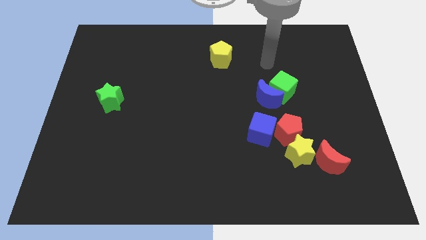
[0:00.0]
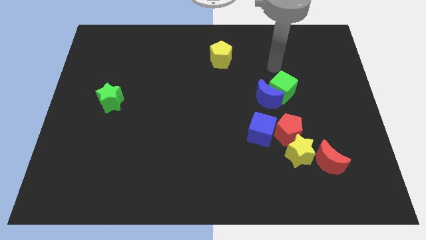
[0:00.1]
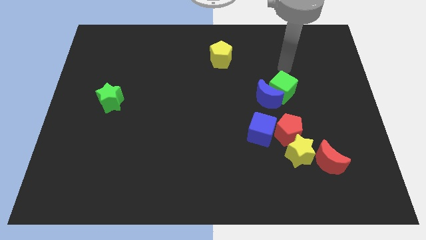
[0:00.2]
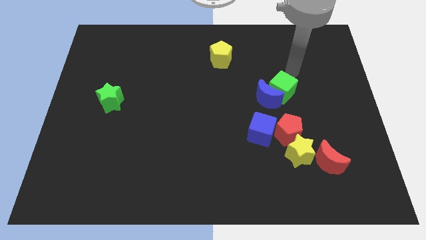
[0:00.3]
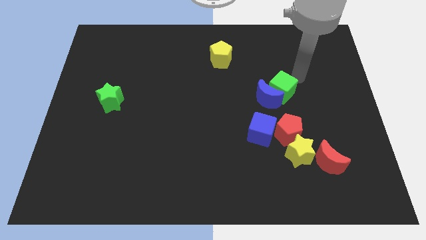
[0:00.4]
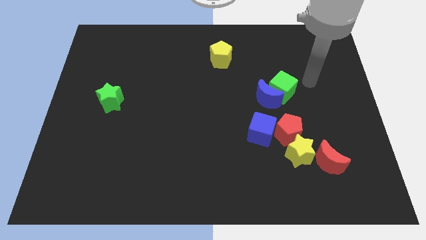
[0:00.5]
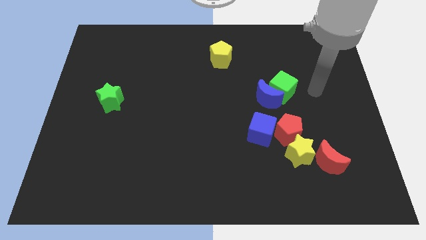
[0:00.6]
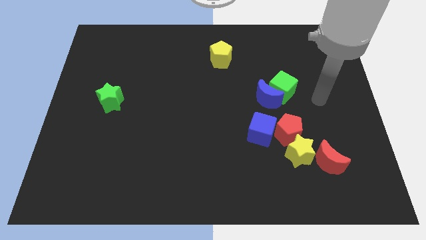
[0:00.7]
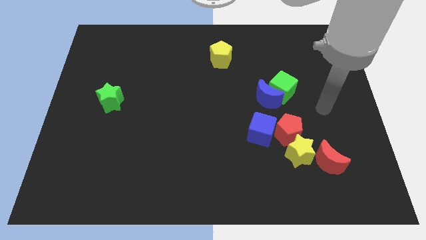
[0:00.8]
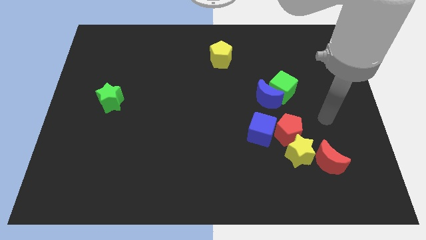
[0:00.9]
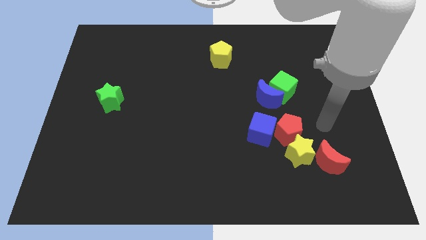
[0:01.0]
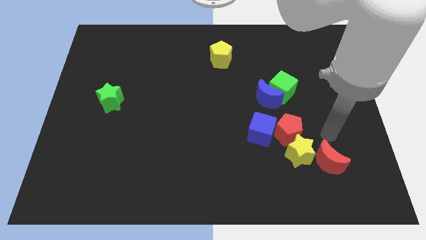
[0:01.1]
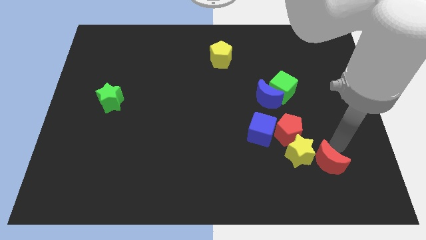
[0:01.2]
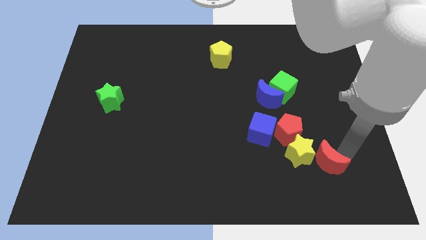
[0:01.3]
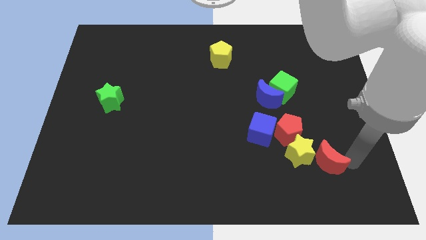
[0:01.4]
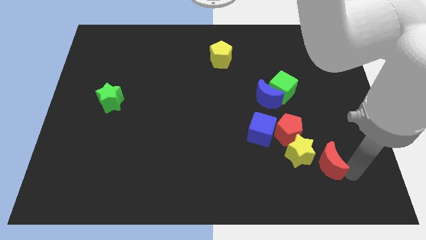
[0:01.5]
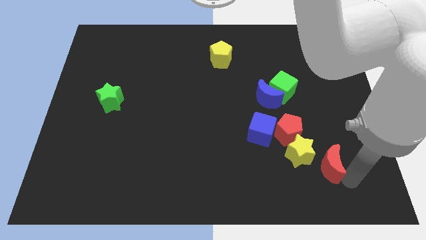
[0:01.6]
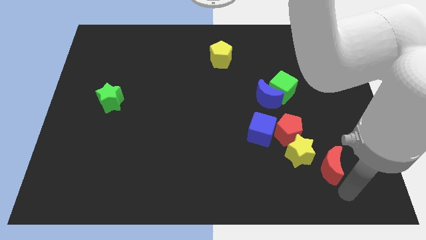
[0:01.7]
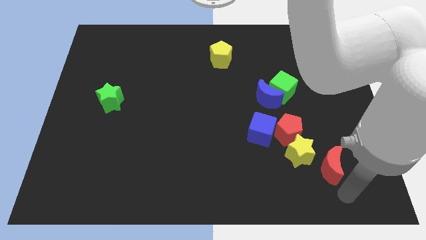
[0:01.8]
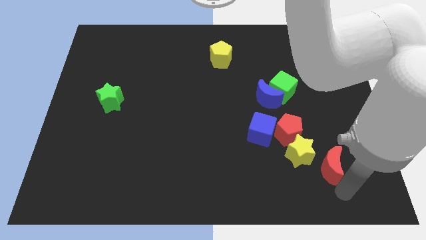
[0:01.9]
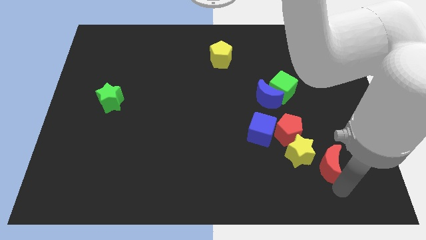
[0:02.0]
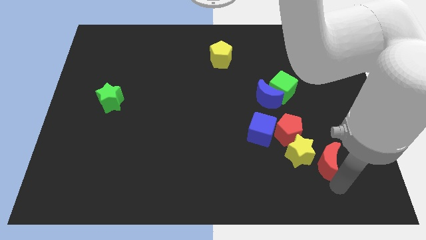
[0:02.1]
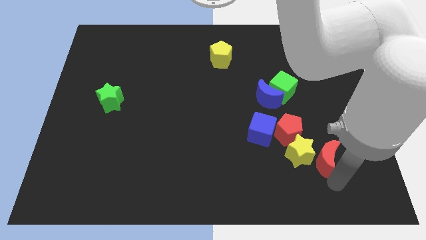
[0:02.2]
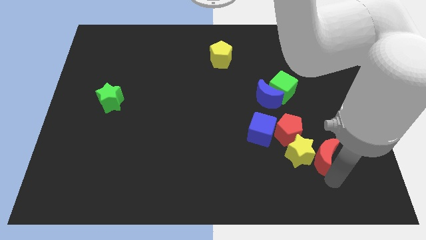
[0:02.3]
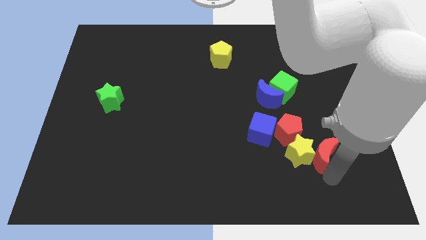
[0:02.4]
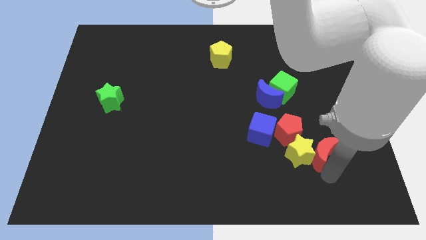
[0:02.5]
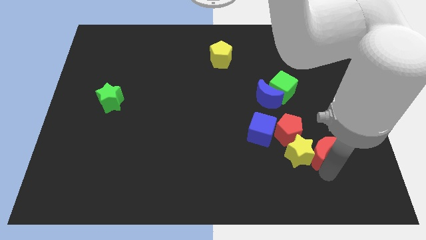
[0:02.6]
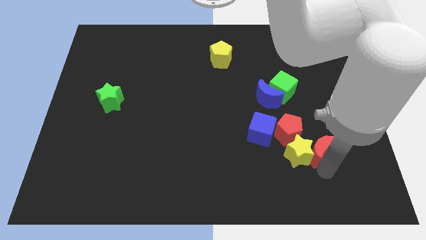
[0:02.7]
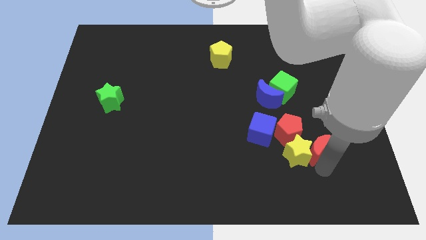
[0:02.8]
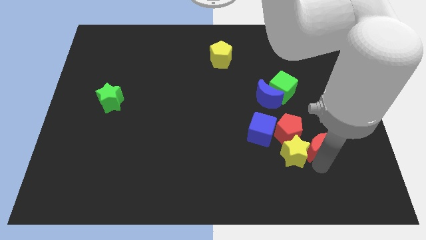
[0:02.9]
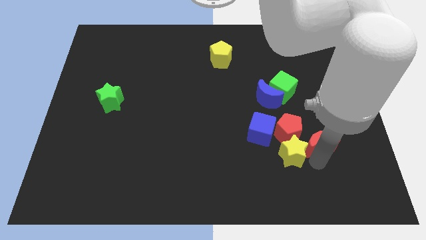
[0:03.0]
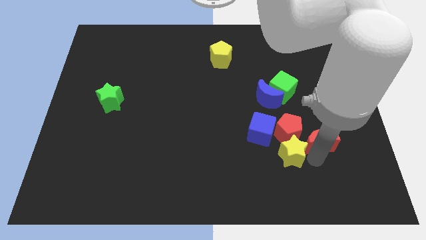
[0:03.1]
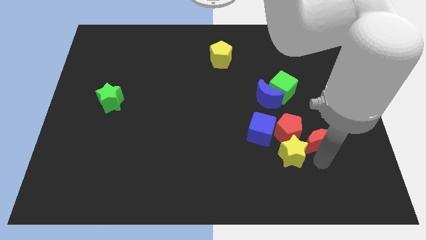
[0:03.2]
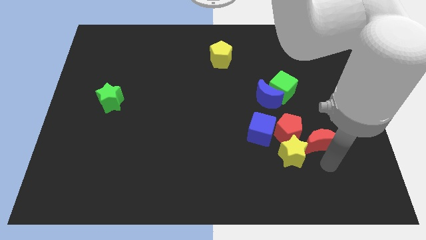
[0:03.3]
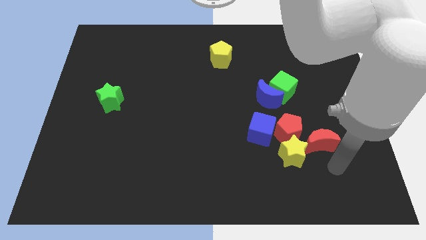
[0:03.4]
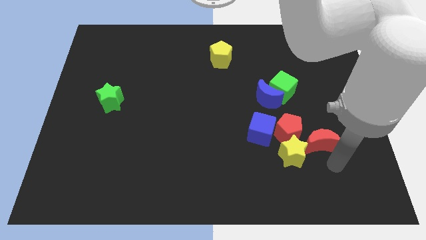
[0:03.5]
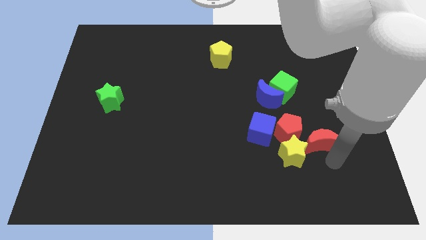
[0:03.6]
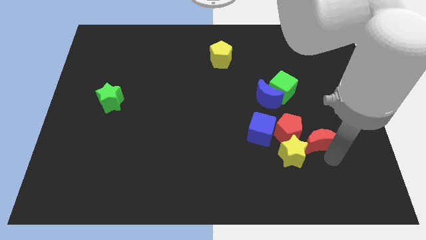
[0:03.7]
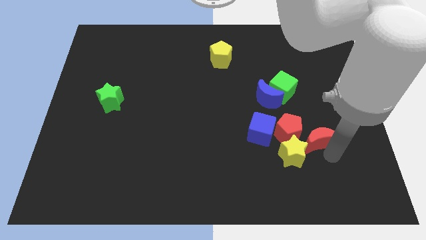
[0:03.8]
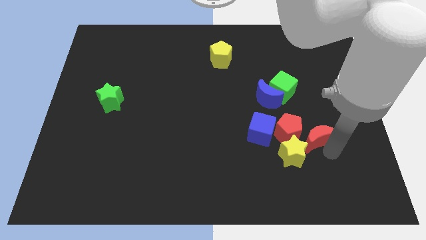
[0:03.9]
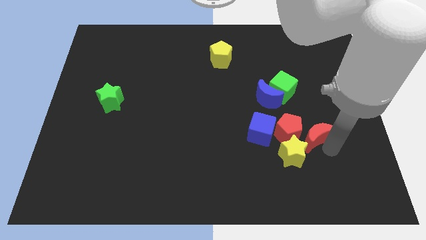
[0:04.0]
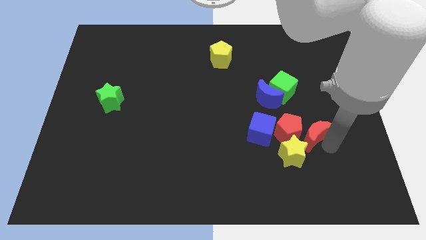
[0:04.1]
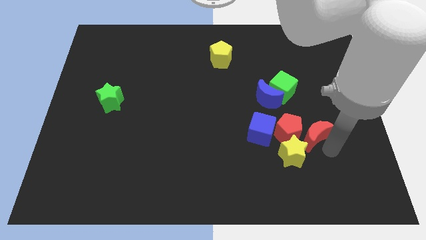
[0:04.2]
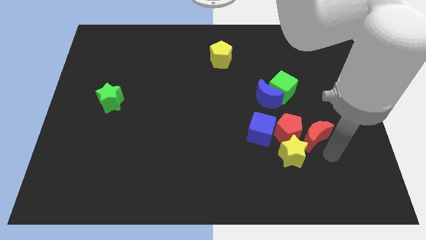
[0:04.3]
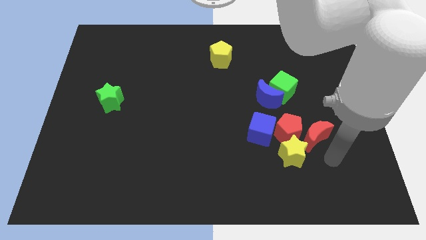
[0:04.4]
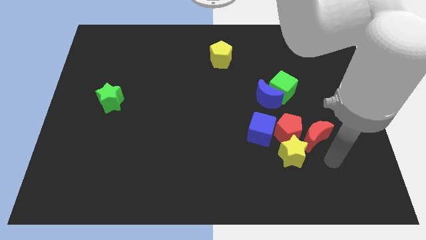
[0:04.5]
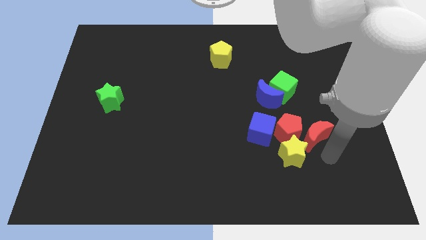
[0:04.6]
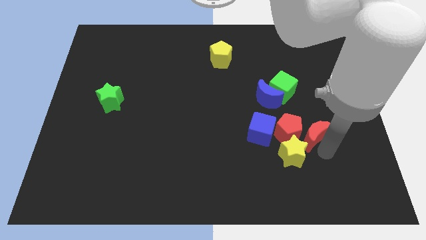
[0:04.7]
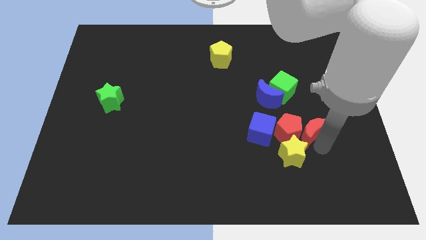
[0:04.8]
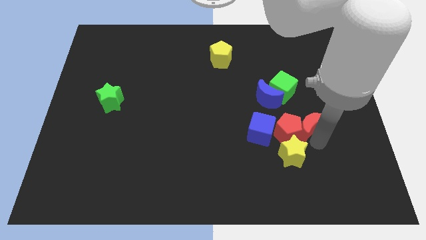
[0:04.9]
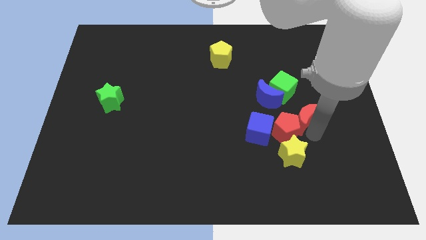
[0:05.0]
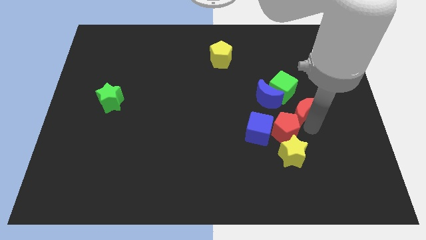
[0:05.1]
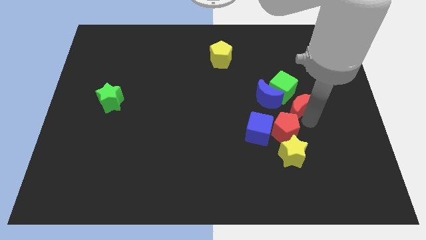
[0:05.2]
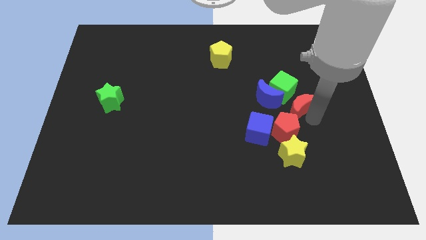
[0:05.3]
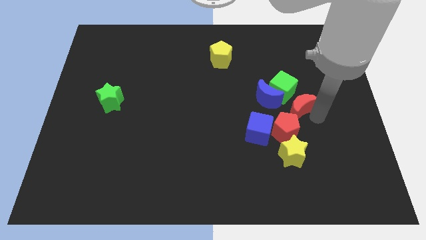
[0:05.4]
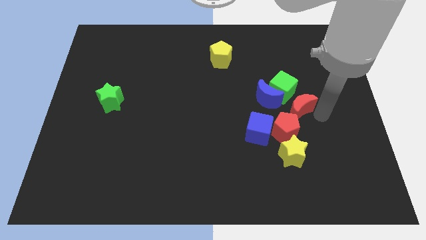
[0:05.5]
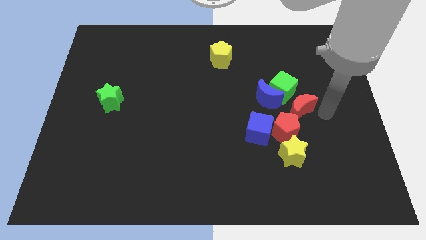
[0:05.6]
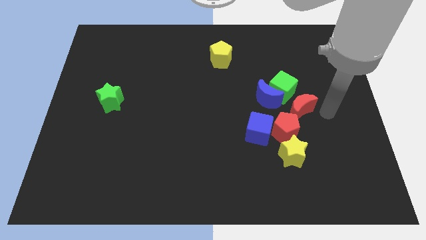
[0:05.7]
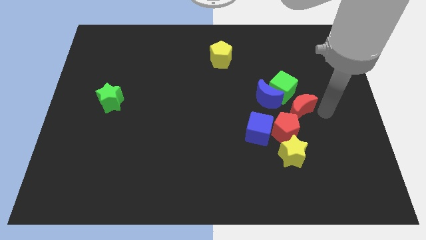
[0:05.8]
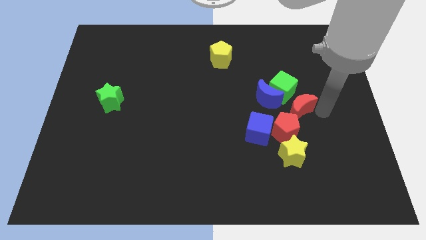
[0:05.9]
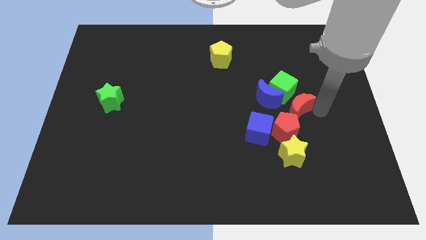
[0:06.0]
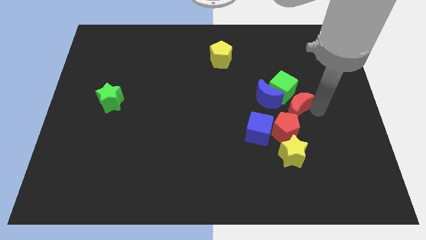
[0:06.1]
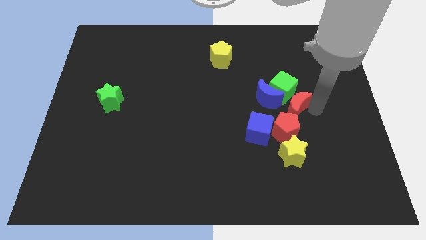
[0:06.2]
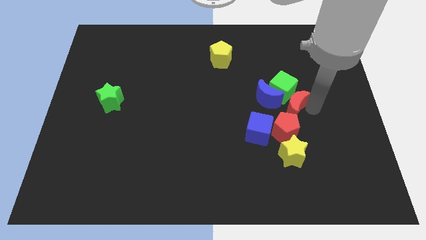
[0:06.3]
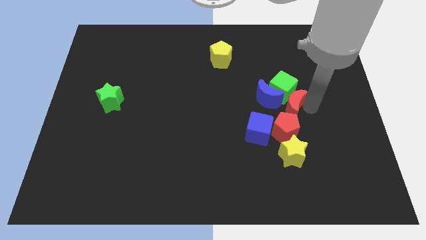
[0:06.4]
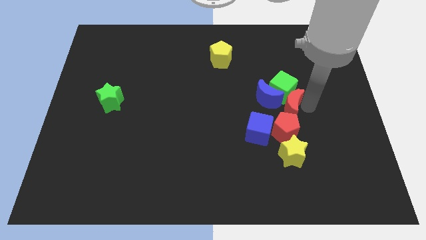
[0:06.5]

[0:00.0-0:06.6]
push the red moon next to the blue moon

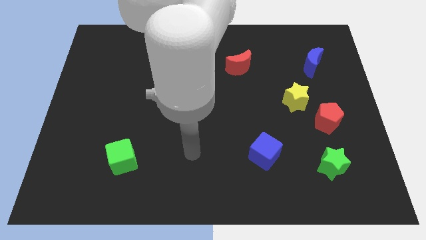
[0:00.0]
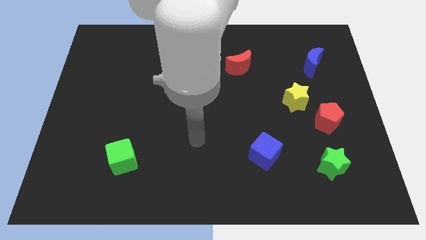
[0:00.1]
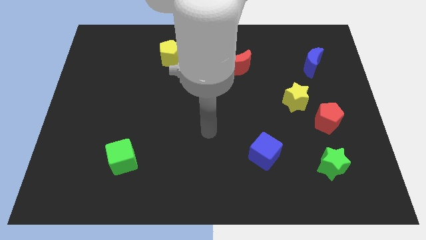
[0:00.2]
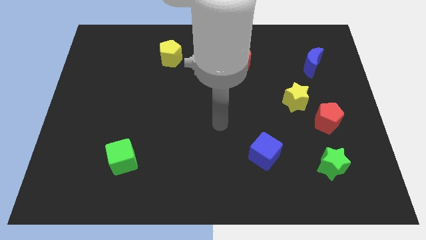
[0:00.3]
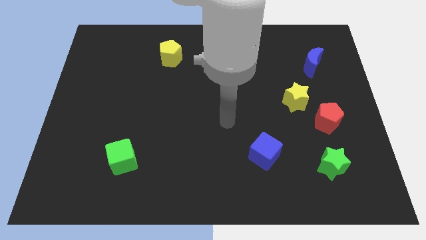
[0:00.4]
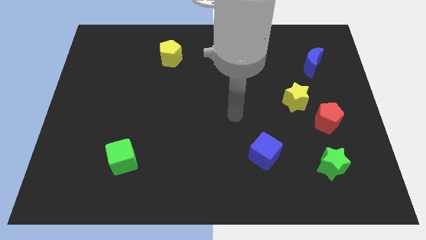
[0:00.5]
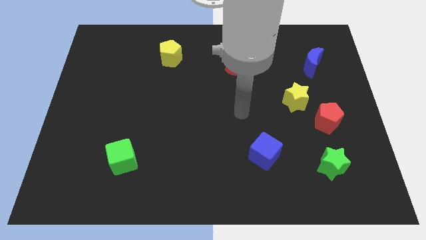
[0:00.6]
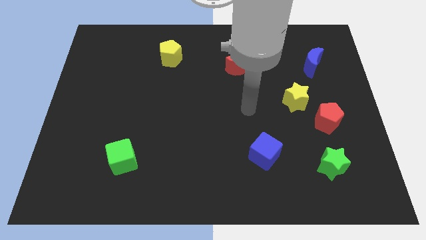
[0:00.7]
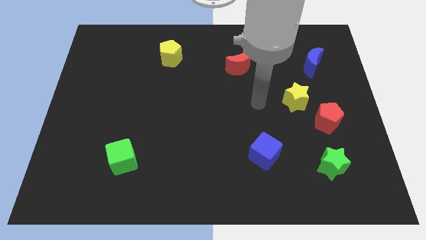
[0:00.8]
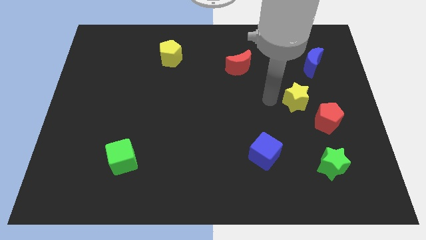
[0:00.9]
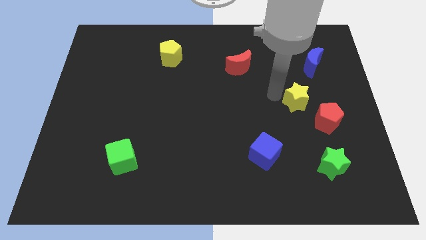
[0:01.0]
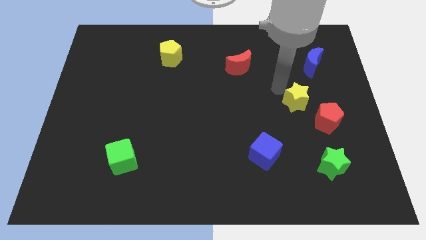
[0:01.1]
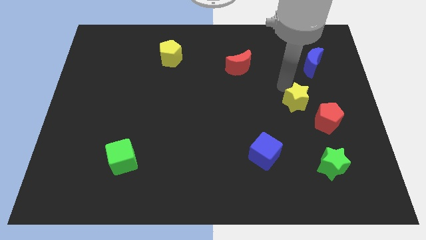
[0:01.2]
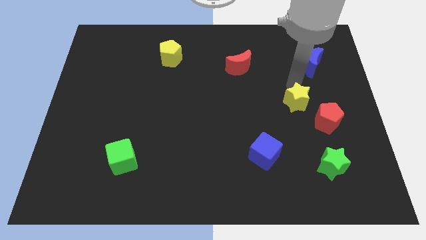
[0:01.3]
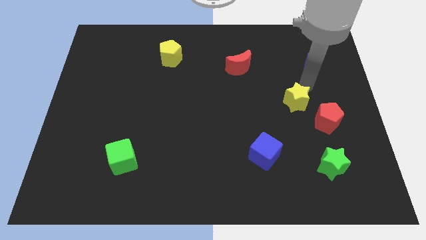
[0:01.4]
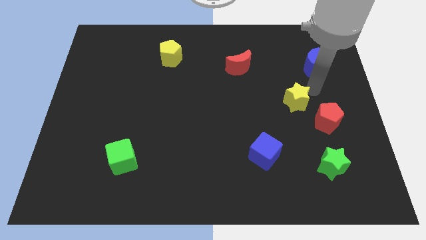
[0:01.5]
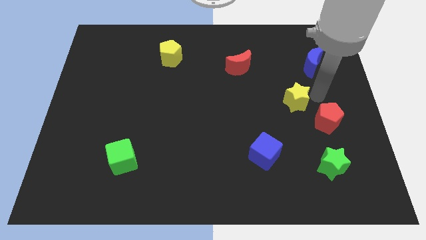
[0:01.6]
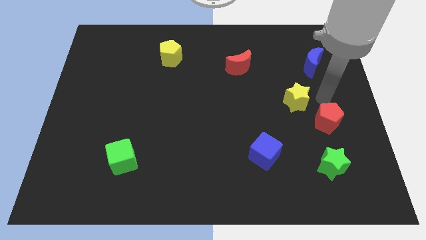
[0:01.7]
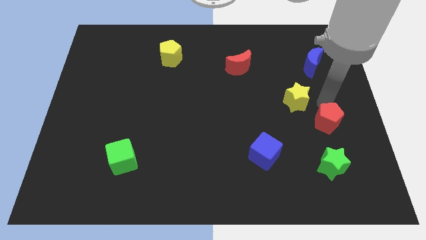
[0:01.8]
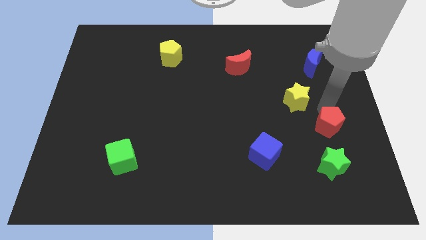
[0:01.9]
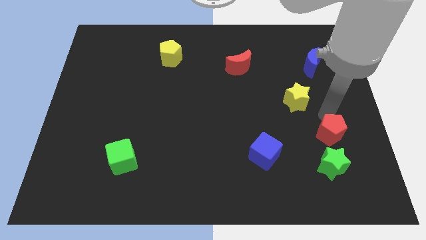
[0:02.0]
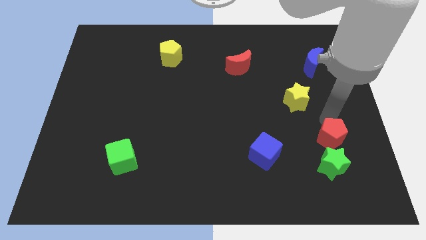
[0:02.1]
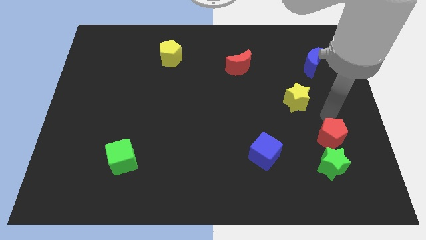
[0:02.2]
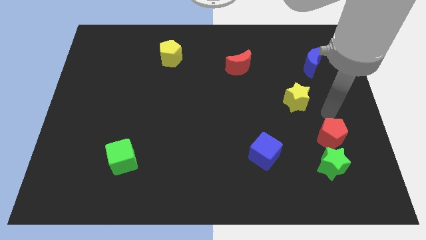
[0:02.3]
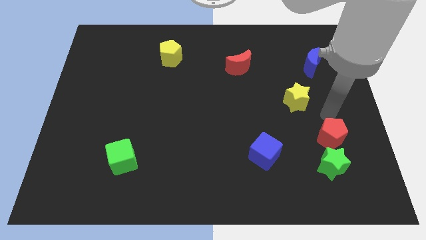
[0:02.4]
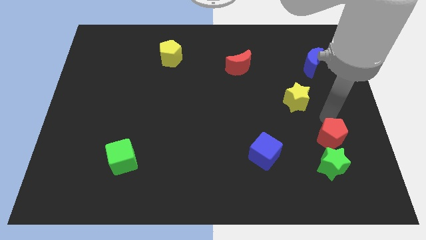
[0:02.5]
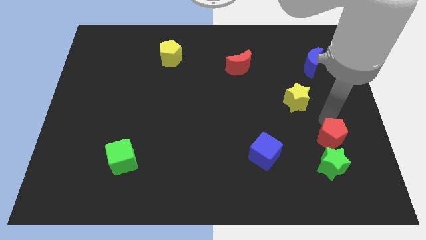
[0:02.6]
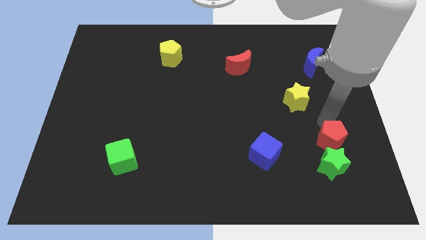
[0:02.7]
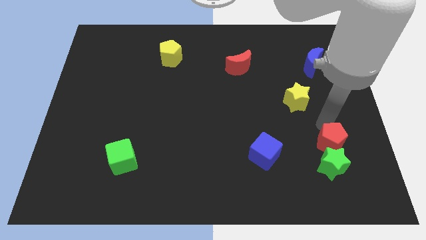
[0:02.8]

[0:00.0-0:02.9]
put the red pentagon to the green star
